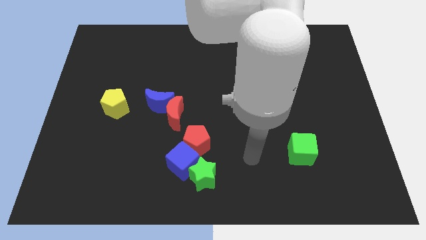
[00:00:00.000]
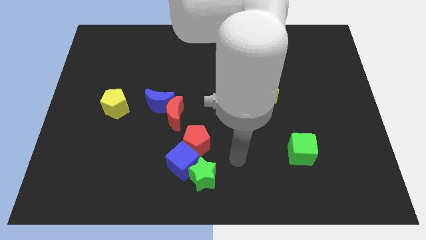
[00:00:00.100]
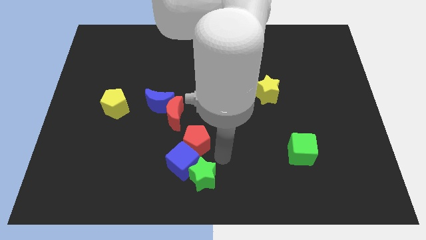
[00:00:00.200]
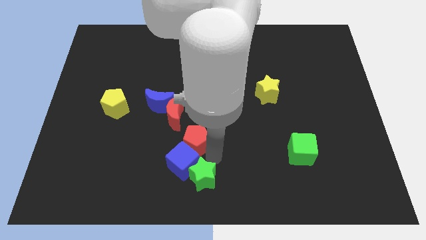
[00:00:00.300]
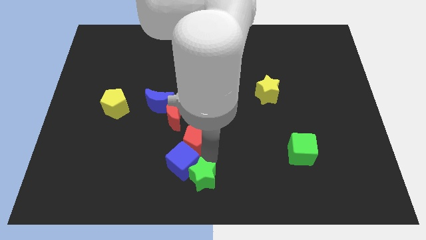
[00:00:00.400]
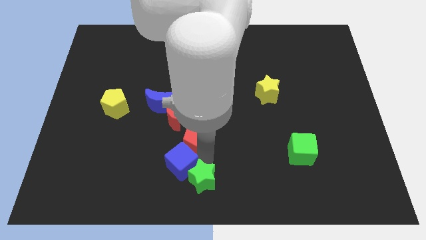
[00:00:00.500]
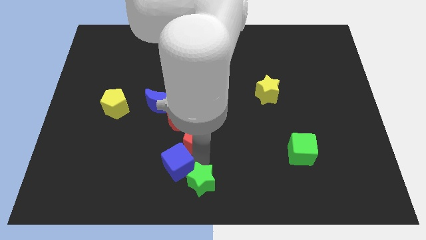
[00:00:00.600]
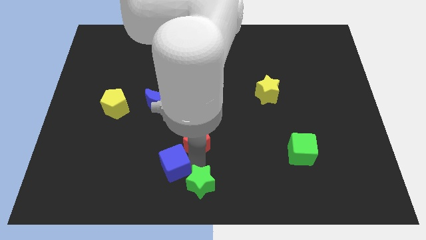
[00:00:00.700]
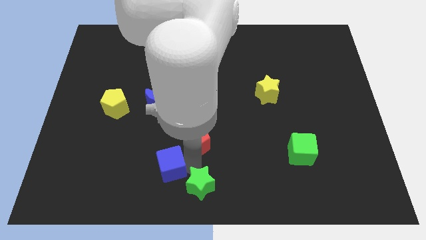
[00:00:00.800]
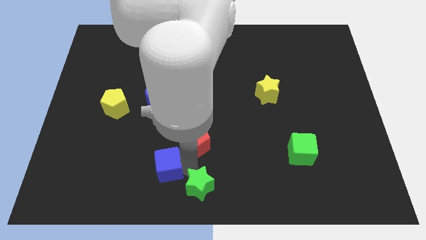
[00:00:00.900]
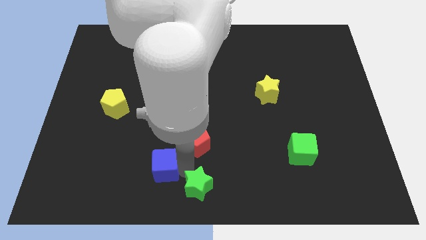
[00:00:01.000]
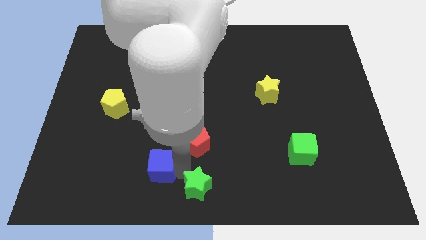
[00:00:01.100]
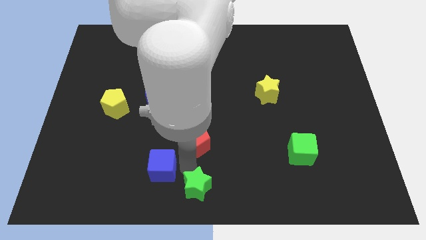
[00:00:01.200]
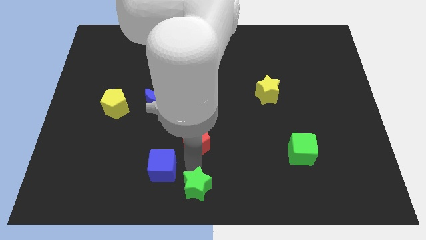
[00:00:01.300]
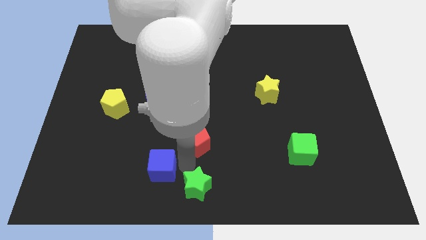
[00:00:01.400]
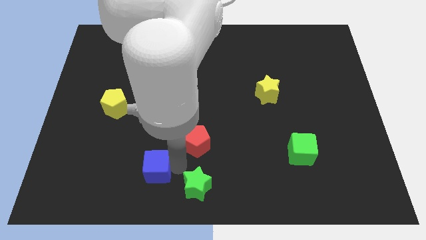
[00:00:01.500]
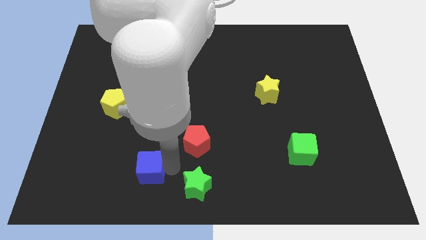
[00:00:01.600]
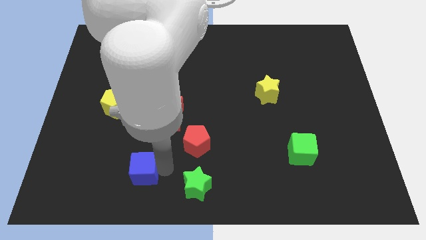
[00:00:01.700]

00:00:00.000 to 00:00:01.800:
separate the blue cube from the green star and red pentagon

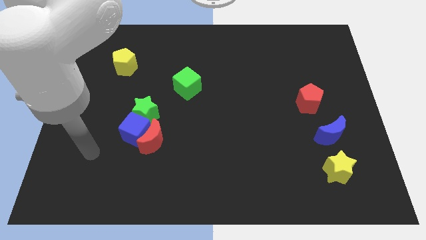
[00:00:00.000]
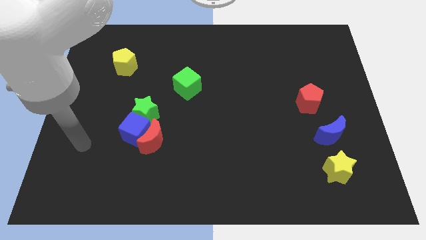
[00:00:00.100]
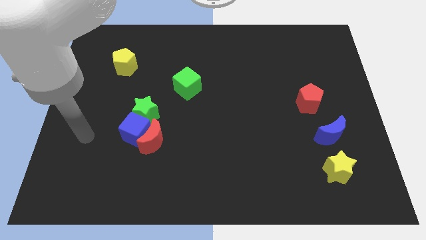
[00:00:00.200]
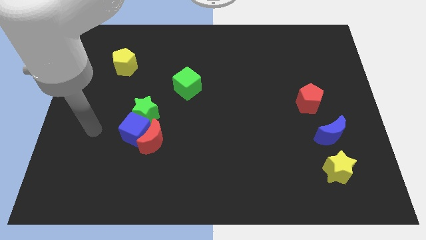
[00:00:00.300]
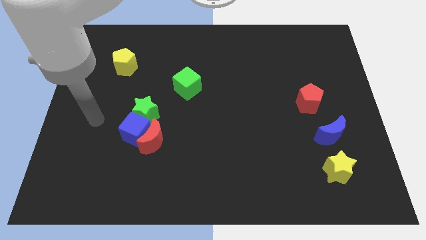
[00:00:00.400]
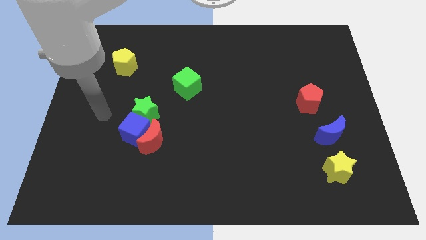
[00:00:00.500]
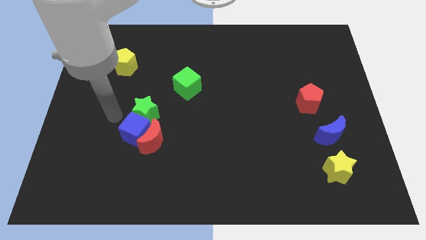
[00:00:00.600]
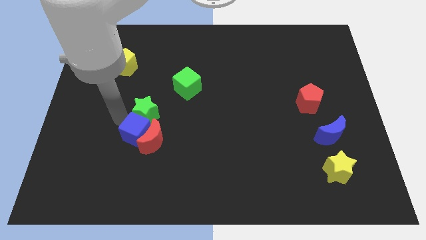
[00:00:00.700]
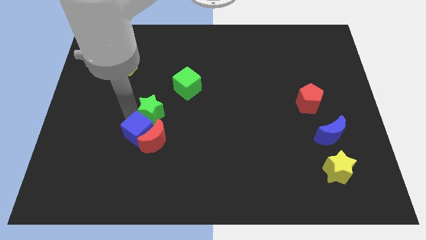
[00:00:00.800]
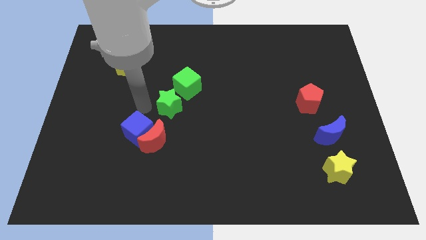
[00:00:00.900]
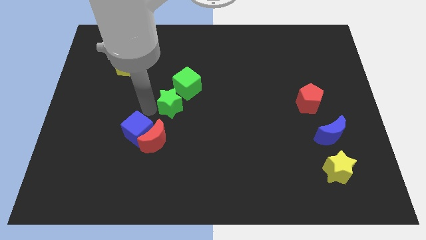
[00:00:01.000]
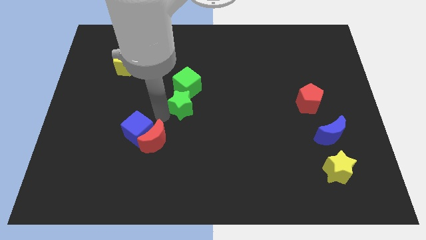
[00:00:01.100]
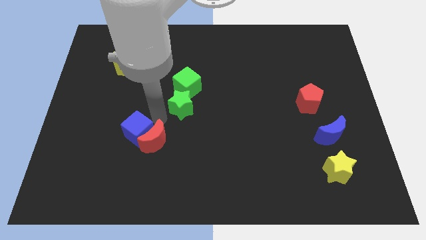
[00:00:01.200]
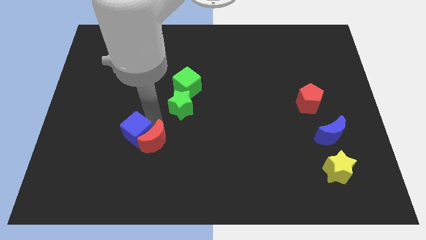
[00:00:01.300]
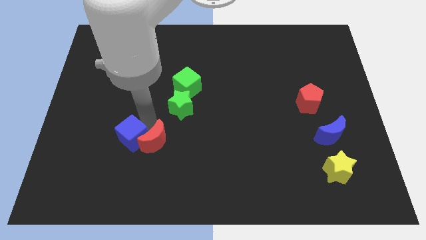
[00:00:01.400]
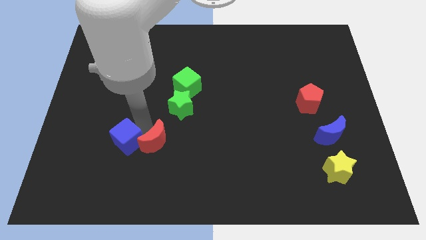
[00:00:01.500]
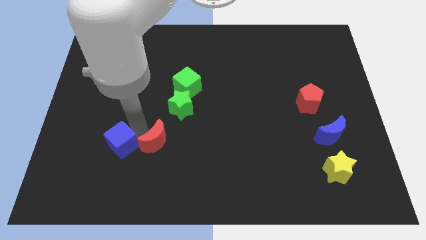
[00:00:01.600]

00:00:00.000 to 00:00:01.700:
pull the blue cube apart from the red moon and green star

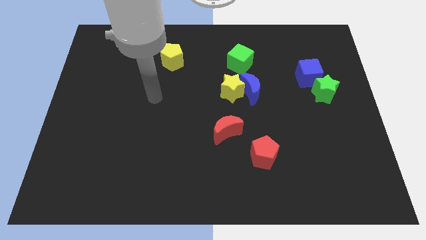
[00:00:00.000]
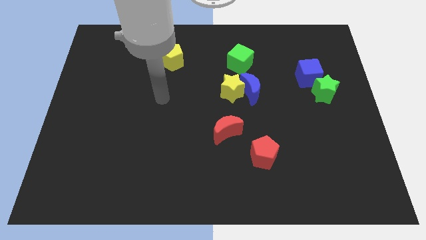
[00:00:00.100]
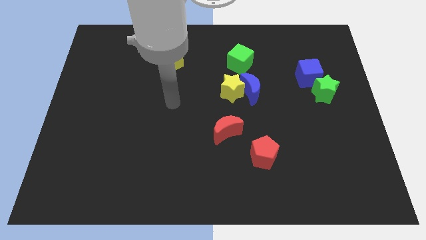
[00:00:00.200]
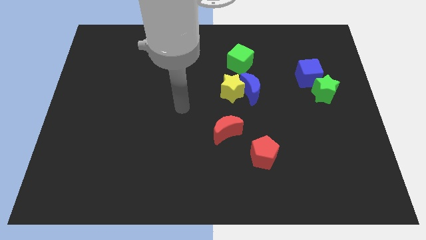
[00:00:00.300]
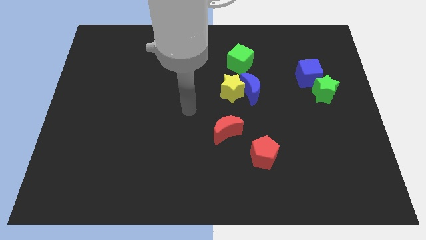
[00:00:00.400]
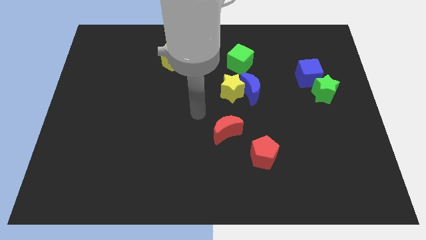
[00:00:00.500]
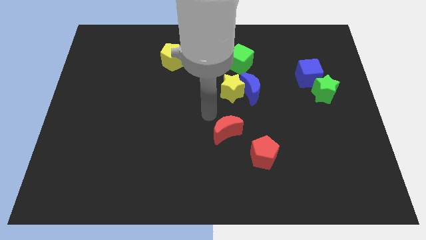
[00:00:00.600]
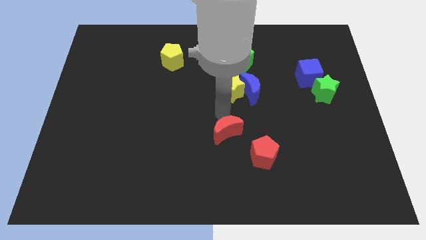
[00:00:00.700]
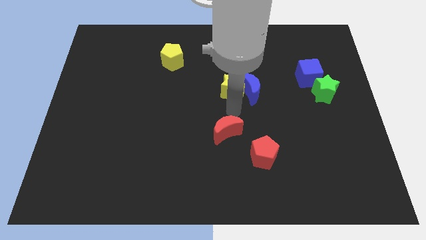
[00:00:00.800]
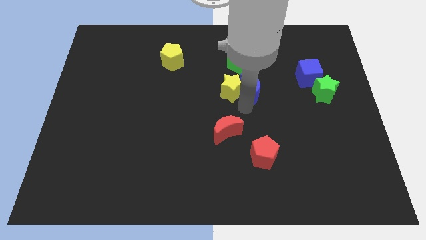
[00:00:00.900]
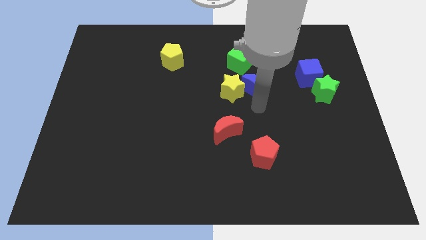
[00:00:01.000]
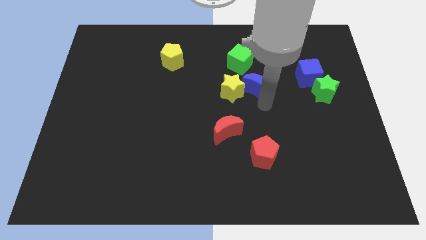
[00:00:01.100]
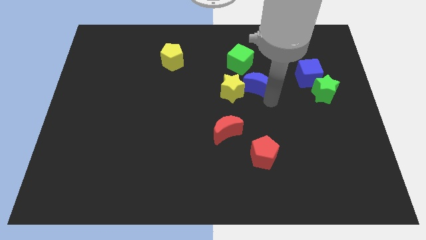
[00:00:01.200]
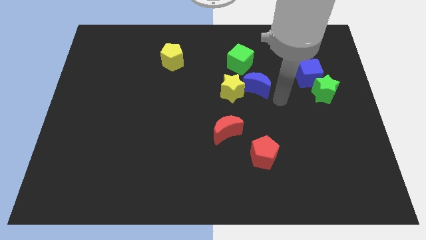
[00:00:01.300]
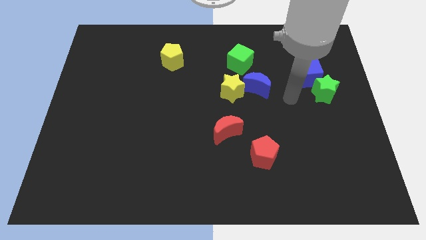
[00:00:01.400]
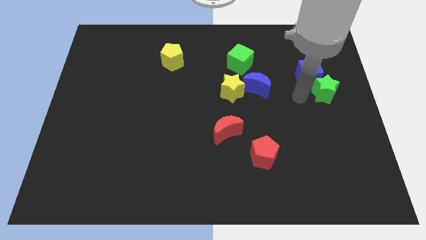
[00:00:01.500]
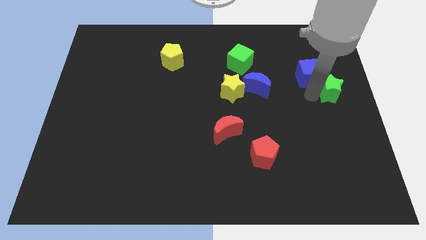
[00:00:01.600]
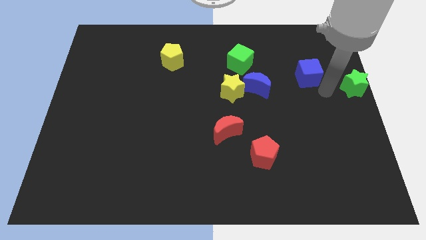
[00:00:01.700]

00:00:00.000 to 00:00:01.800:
separate the blue cube from the green star

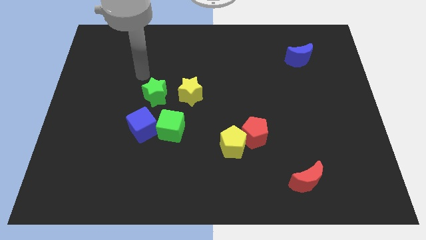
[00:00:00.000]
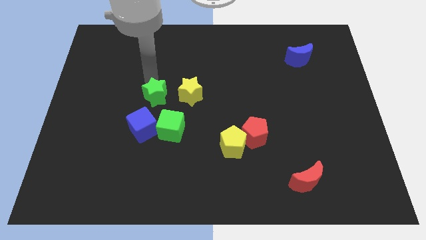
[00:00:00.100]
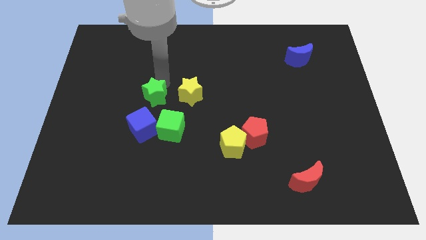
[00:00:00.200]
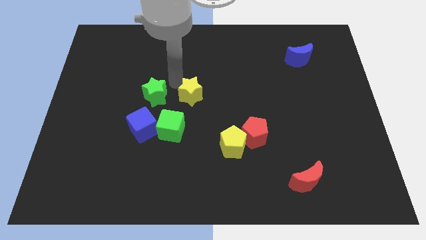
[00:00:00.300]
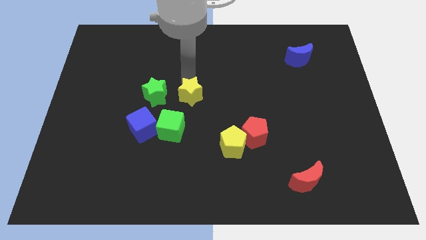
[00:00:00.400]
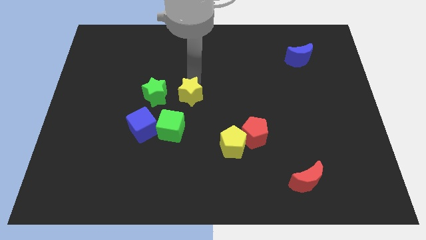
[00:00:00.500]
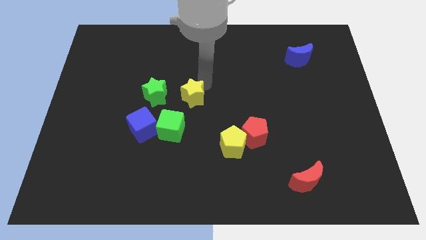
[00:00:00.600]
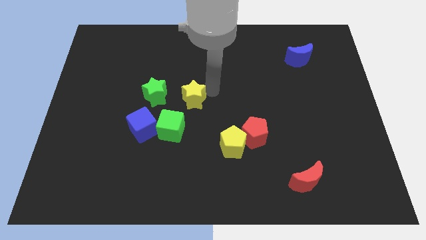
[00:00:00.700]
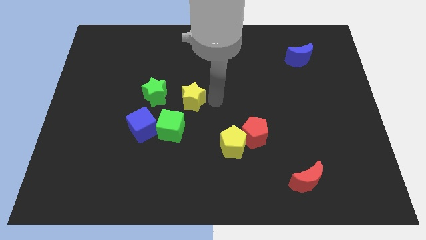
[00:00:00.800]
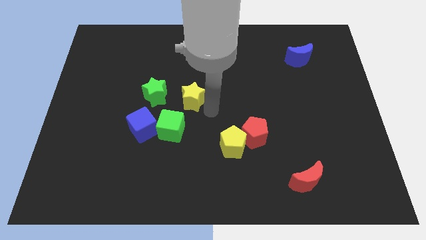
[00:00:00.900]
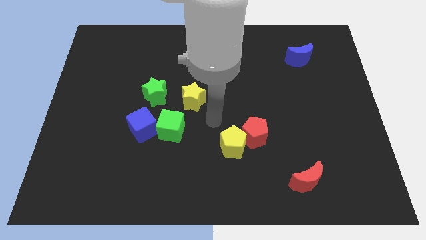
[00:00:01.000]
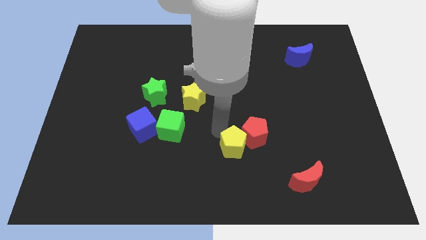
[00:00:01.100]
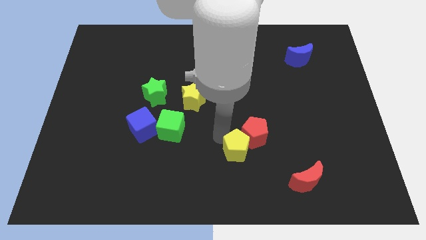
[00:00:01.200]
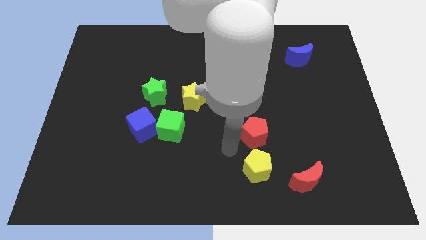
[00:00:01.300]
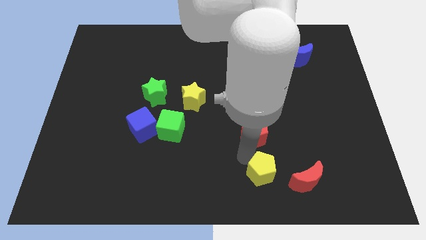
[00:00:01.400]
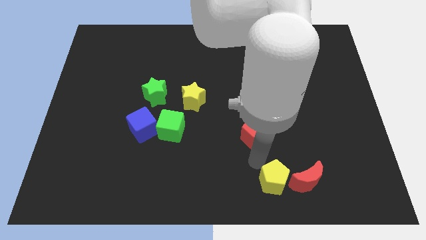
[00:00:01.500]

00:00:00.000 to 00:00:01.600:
pull the red pentagon apart from the yellow pentagon

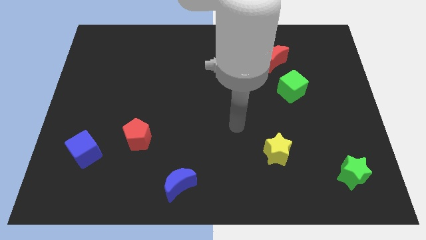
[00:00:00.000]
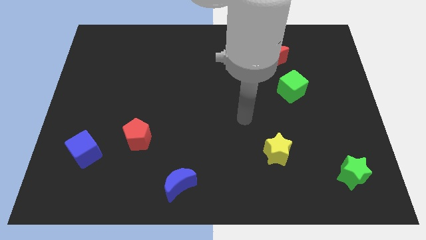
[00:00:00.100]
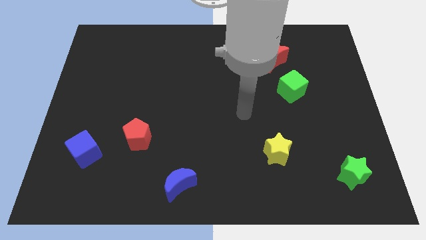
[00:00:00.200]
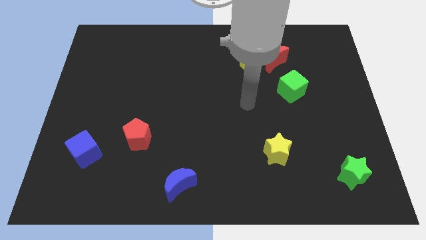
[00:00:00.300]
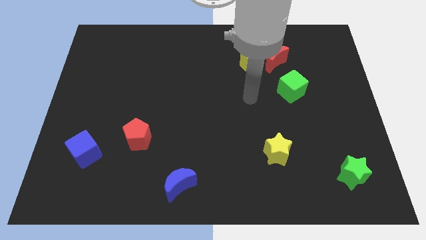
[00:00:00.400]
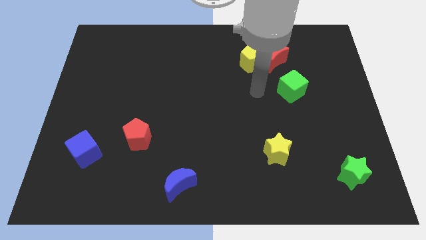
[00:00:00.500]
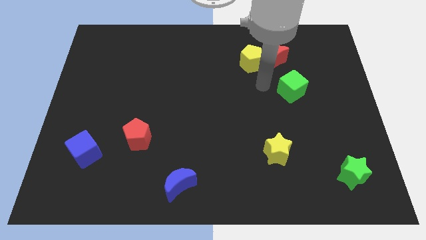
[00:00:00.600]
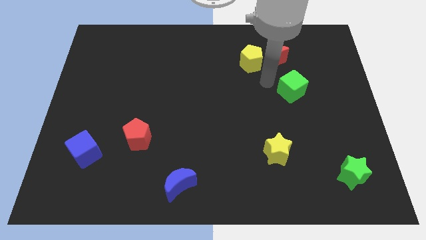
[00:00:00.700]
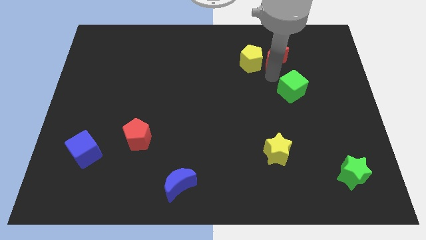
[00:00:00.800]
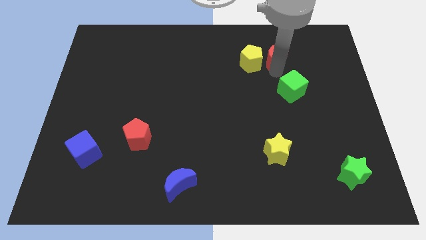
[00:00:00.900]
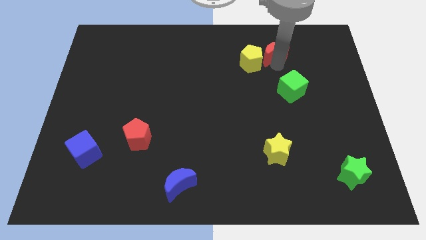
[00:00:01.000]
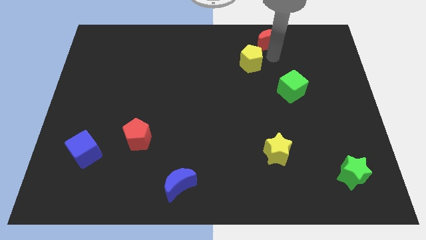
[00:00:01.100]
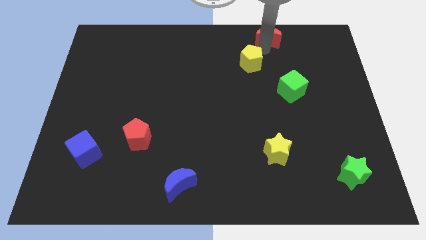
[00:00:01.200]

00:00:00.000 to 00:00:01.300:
pull the yellow pentagon apart from the red moon

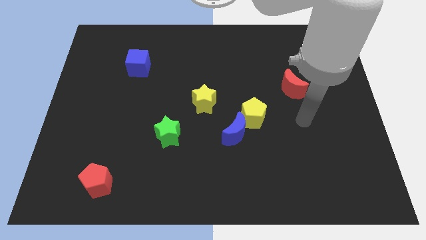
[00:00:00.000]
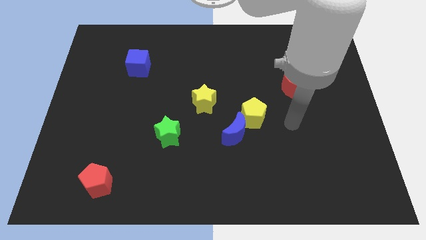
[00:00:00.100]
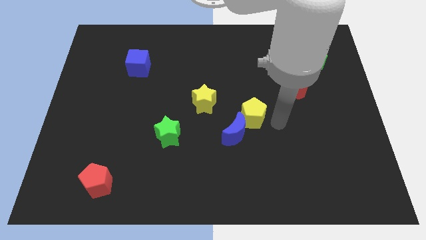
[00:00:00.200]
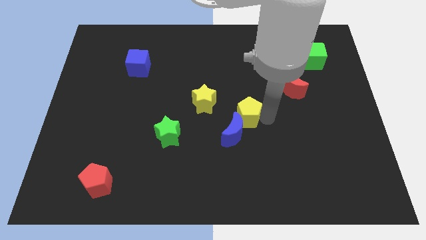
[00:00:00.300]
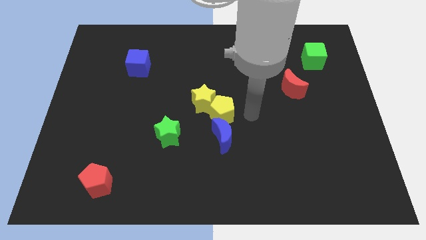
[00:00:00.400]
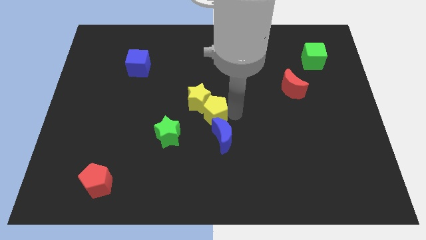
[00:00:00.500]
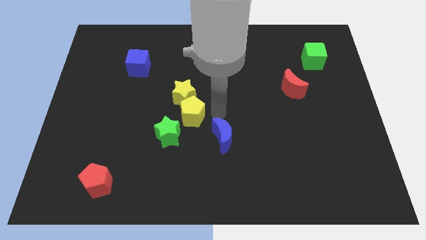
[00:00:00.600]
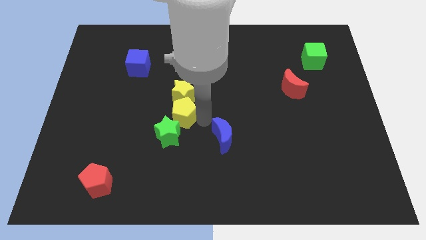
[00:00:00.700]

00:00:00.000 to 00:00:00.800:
separate the blue moon from the yellow pentagon
